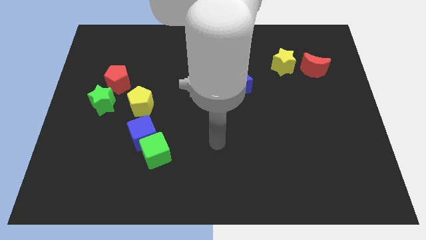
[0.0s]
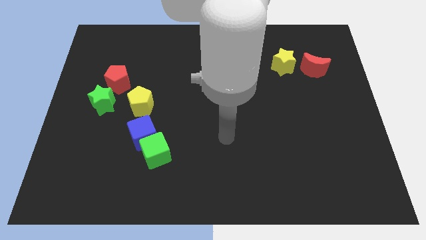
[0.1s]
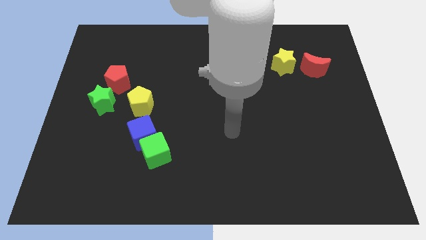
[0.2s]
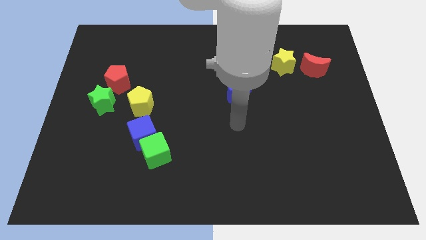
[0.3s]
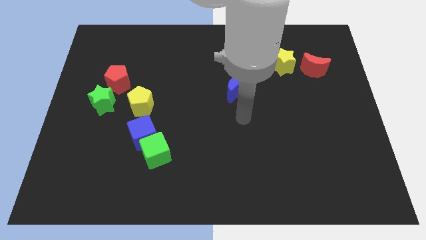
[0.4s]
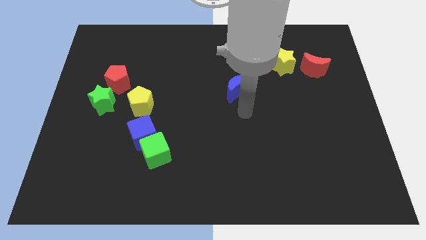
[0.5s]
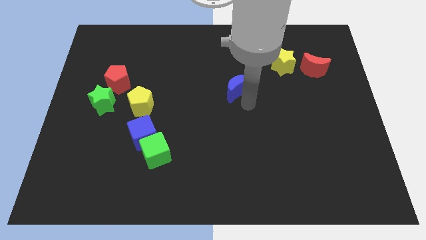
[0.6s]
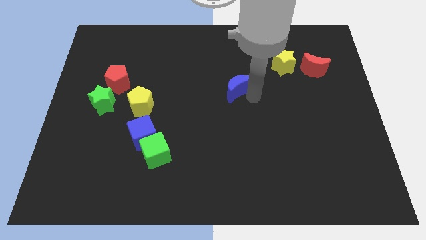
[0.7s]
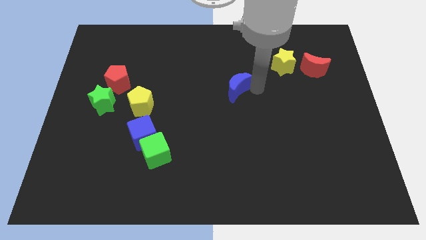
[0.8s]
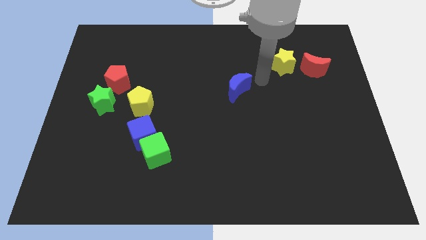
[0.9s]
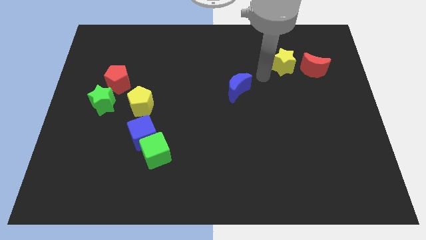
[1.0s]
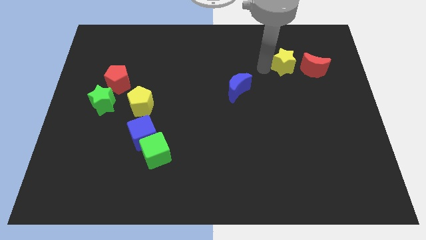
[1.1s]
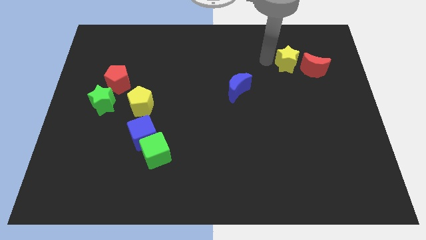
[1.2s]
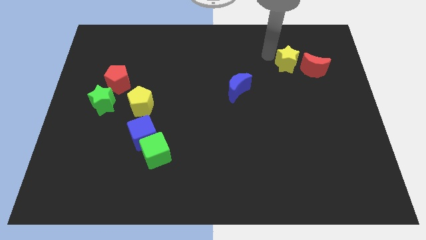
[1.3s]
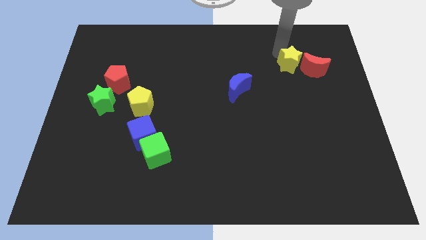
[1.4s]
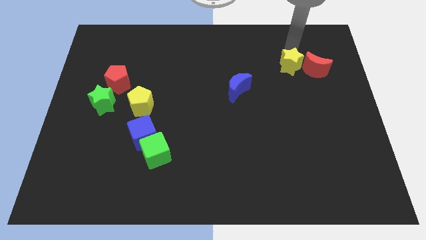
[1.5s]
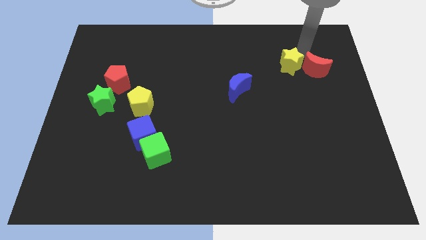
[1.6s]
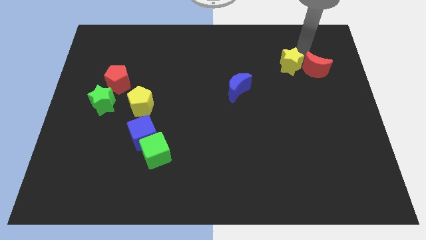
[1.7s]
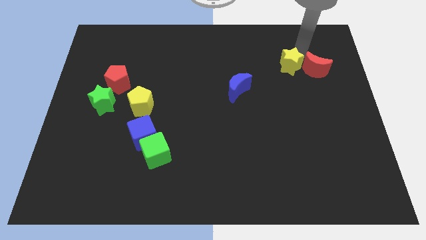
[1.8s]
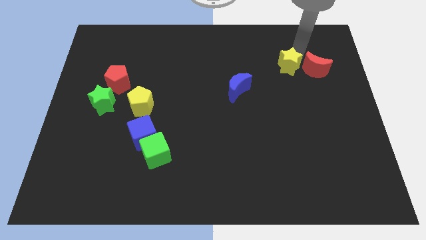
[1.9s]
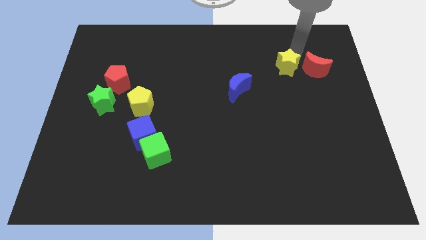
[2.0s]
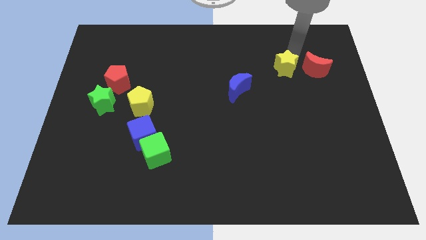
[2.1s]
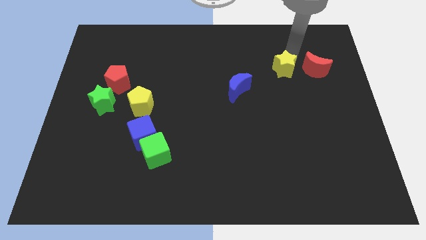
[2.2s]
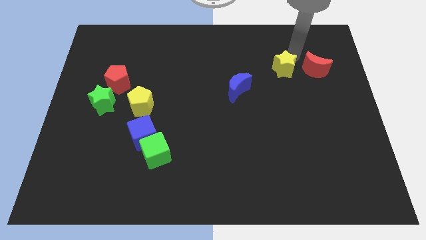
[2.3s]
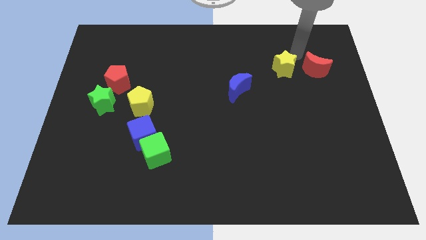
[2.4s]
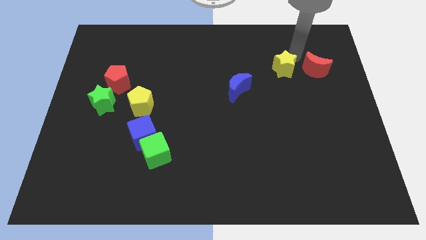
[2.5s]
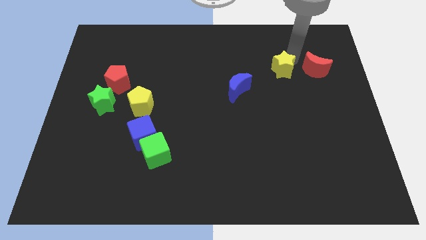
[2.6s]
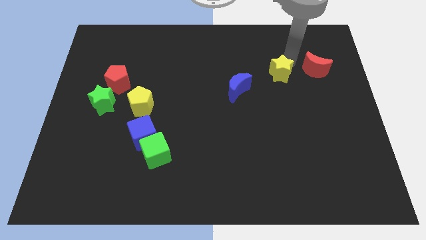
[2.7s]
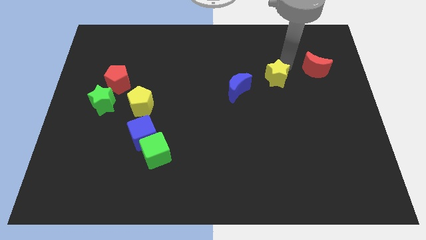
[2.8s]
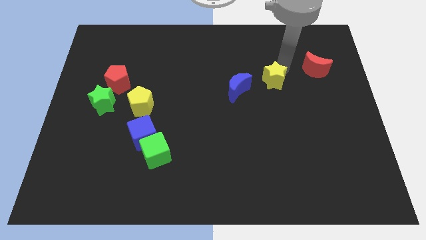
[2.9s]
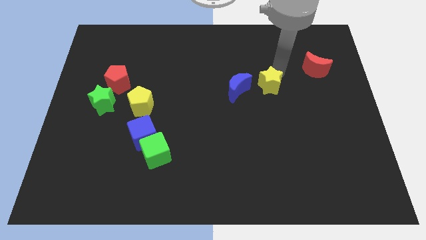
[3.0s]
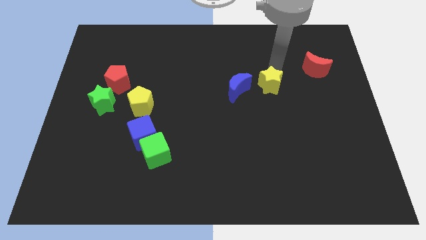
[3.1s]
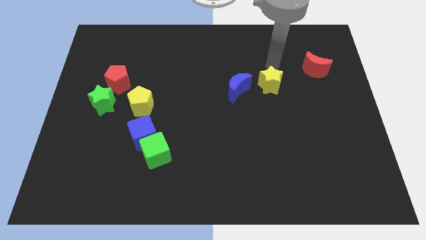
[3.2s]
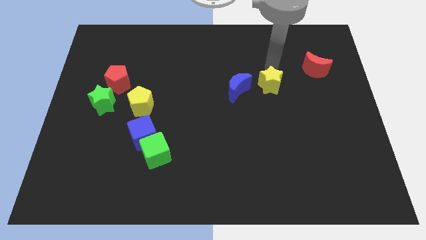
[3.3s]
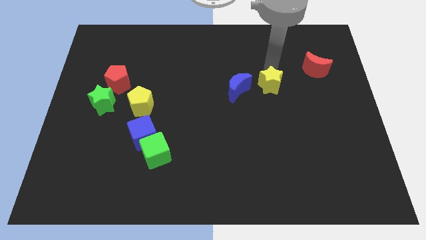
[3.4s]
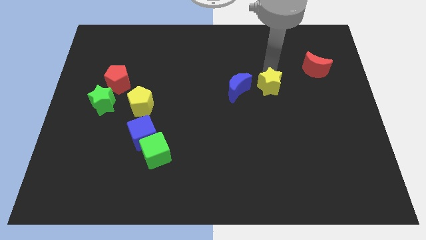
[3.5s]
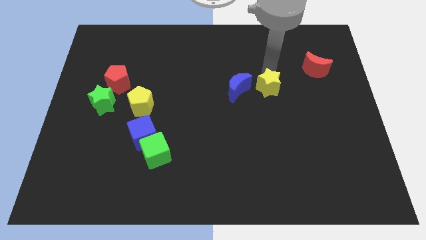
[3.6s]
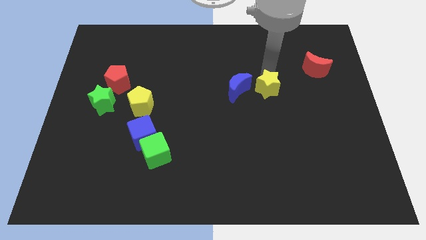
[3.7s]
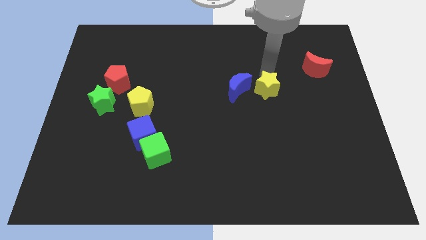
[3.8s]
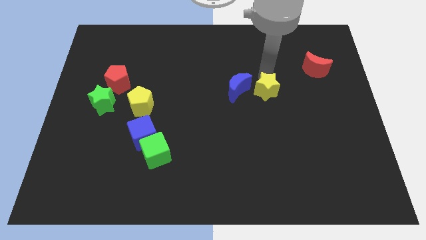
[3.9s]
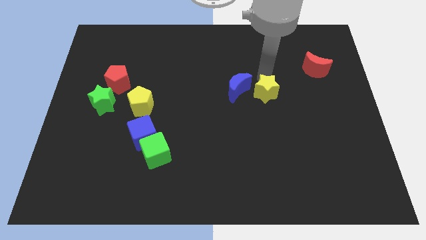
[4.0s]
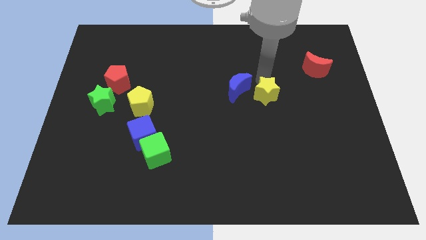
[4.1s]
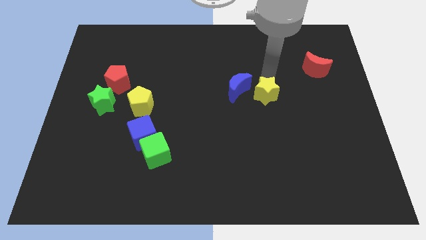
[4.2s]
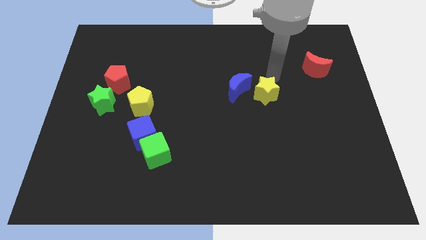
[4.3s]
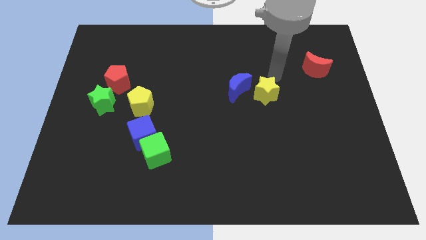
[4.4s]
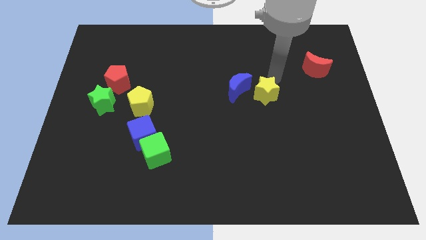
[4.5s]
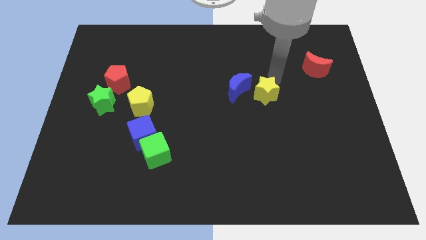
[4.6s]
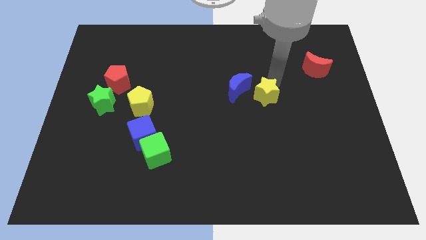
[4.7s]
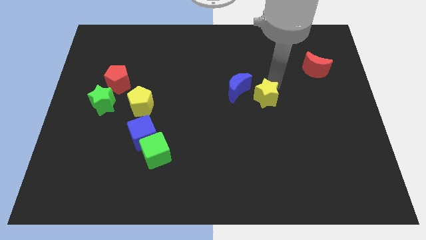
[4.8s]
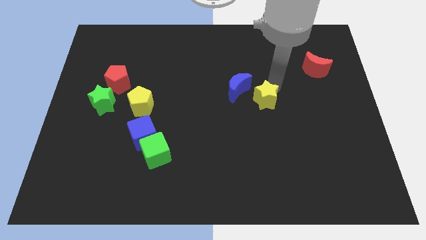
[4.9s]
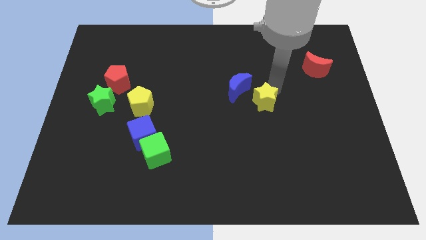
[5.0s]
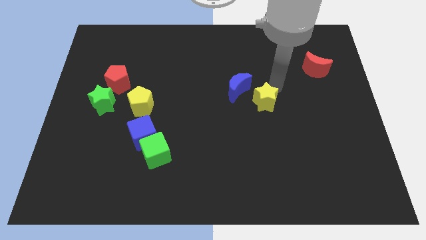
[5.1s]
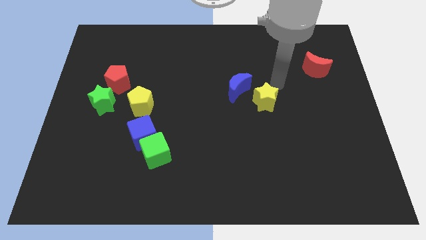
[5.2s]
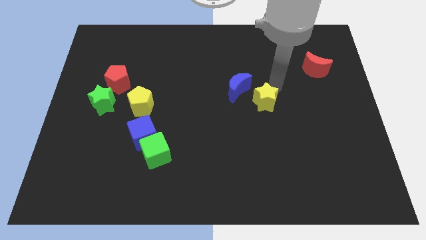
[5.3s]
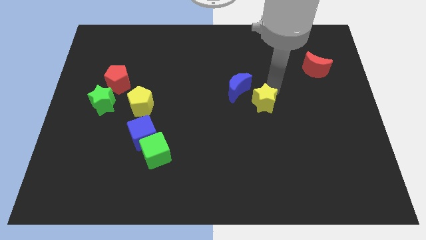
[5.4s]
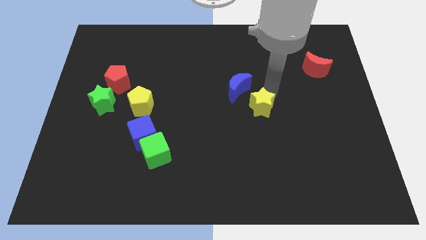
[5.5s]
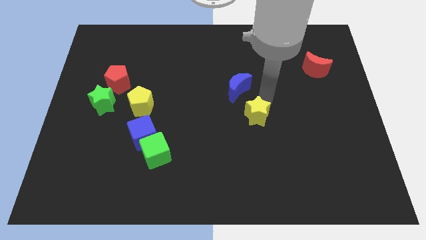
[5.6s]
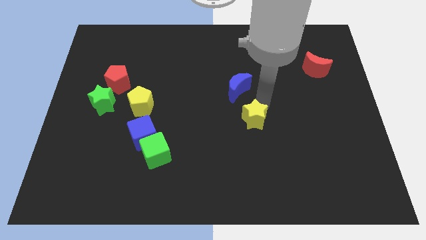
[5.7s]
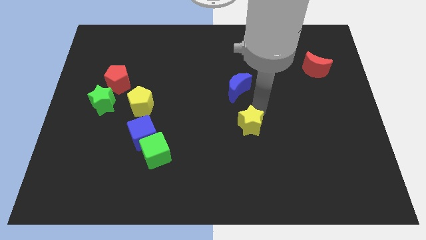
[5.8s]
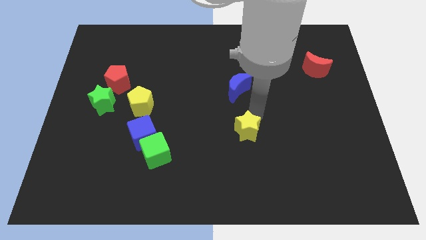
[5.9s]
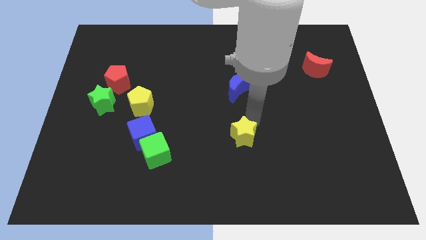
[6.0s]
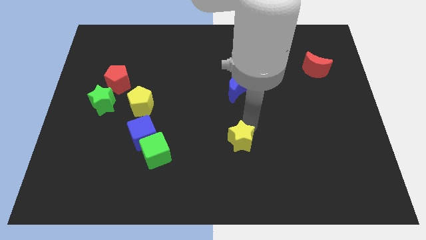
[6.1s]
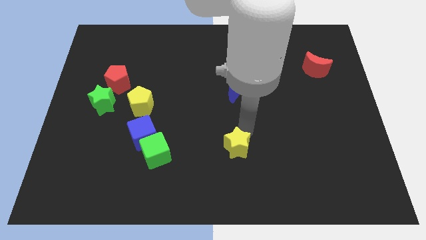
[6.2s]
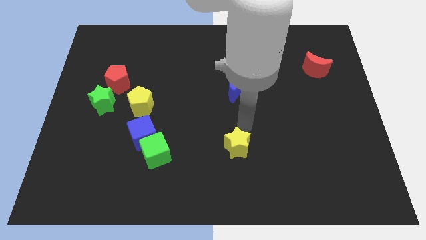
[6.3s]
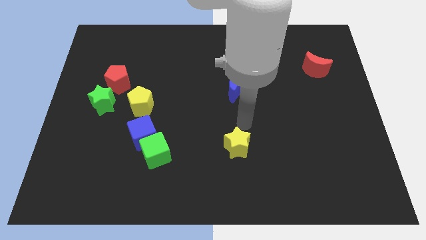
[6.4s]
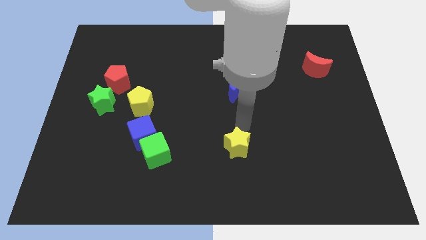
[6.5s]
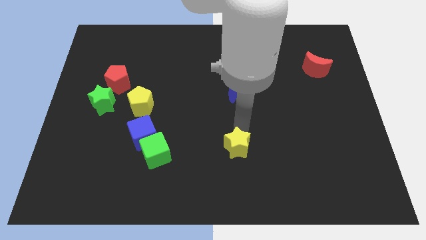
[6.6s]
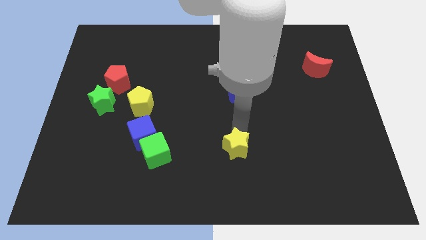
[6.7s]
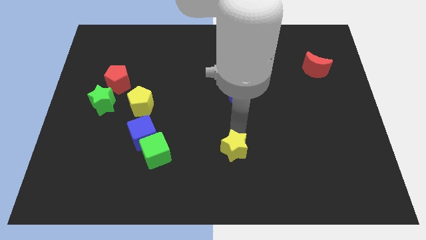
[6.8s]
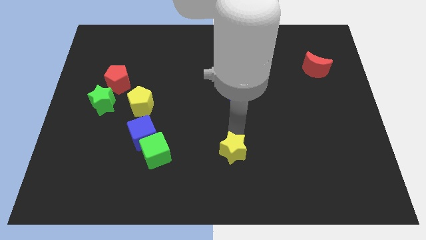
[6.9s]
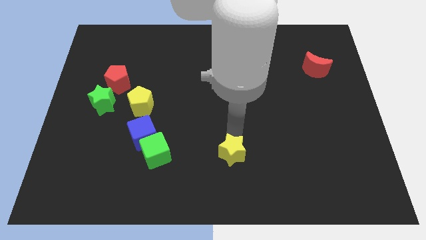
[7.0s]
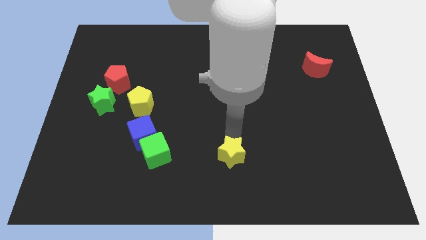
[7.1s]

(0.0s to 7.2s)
slide the yellow star to the bottom side

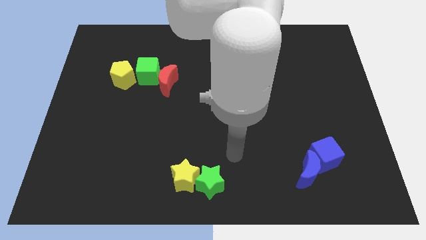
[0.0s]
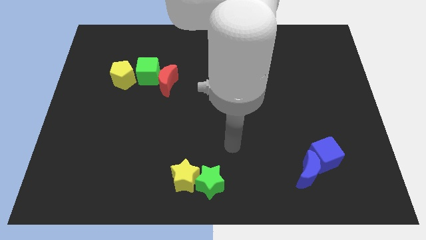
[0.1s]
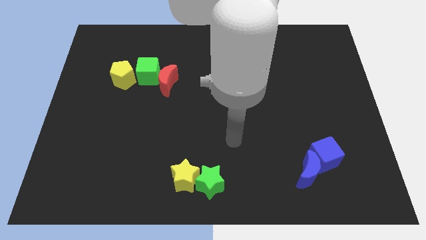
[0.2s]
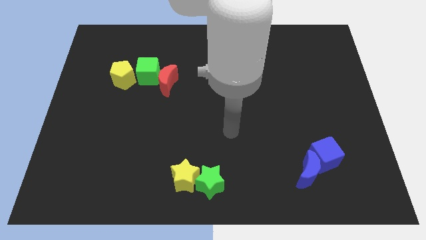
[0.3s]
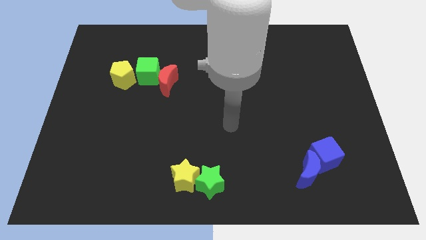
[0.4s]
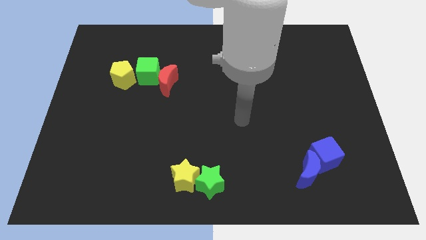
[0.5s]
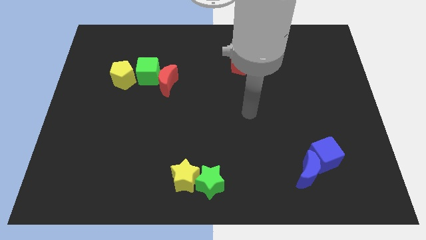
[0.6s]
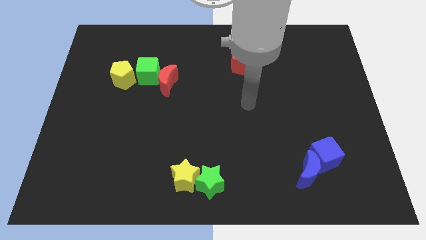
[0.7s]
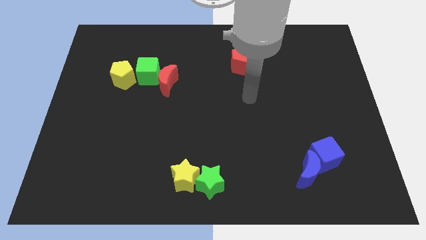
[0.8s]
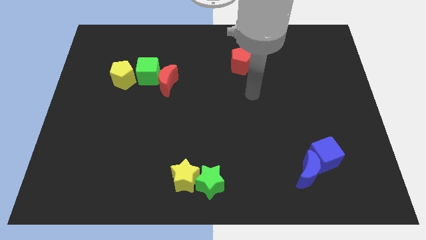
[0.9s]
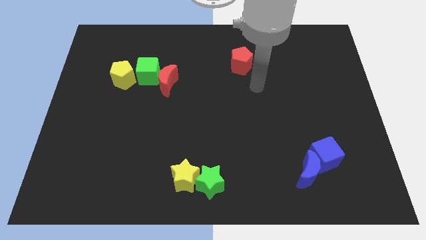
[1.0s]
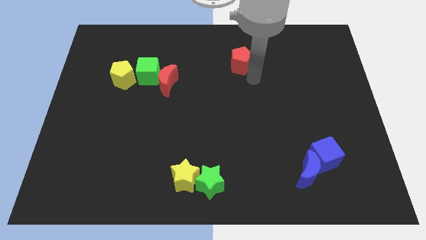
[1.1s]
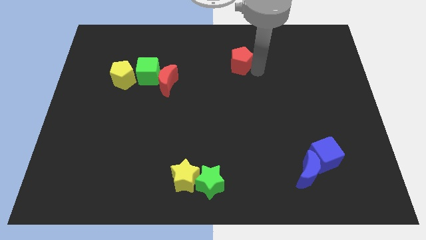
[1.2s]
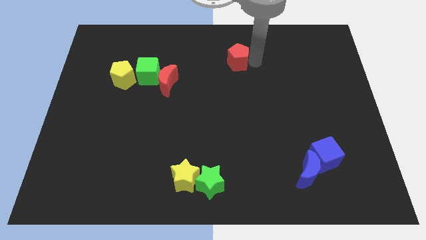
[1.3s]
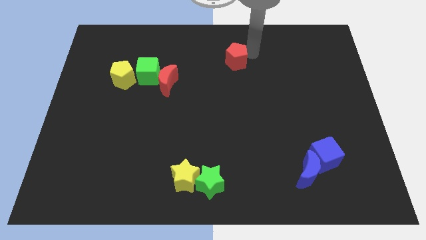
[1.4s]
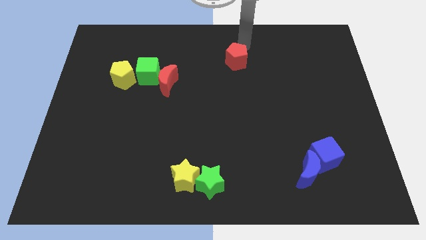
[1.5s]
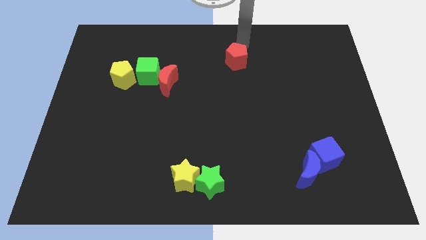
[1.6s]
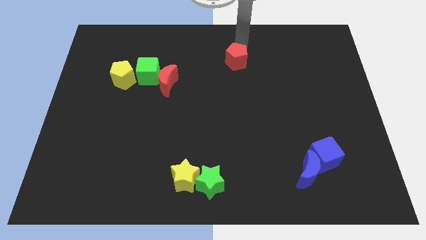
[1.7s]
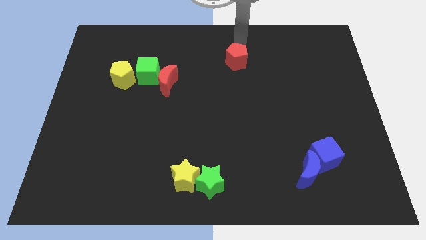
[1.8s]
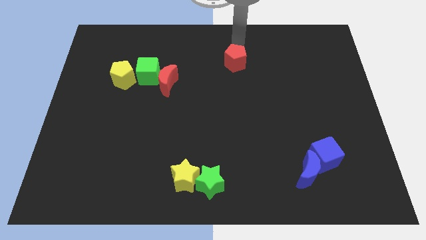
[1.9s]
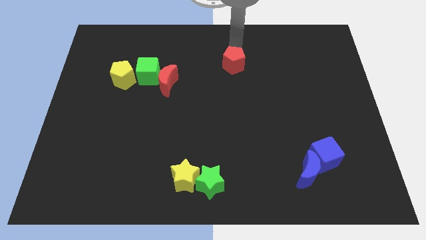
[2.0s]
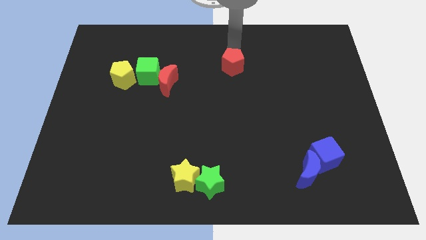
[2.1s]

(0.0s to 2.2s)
slide the red pentagon to the center of the board
